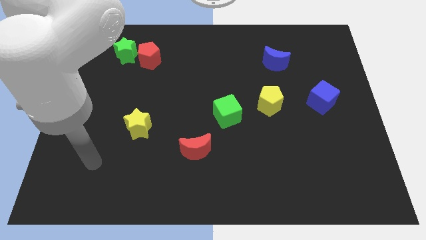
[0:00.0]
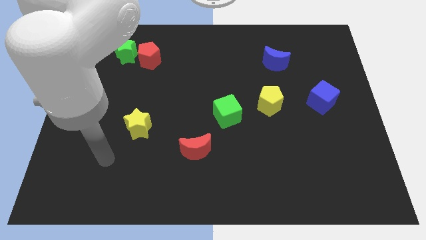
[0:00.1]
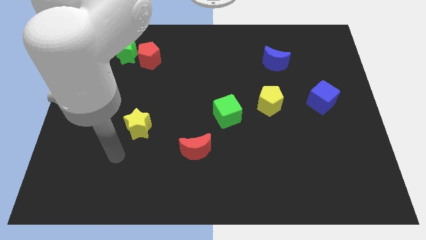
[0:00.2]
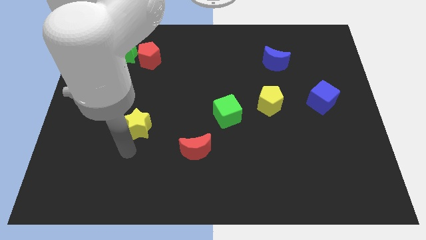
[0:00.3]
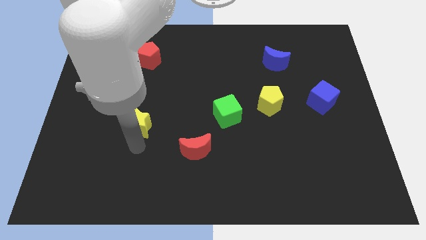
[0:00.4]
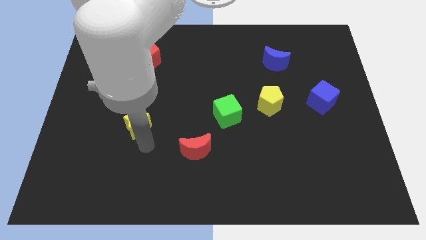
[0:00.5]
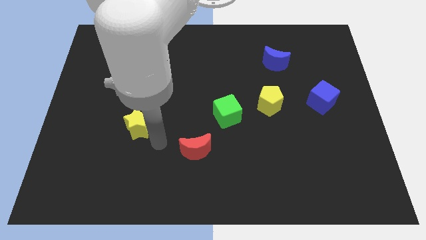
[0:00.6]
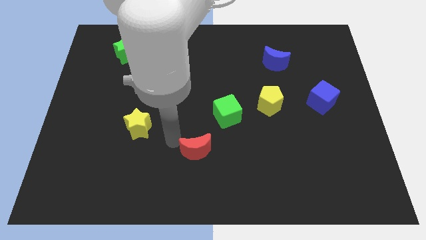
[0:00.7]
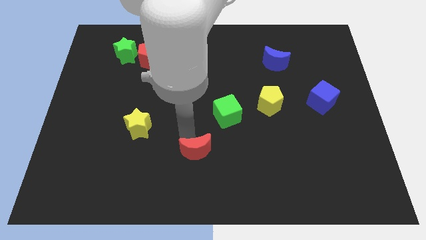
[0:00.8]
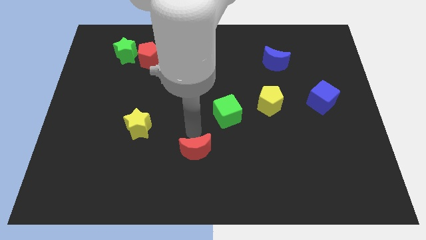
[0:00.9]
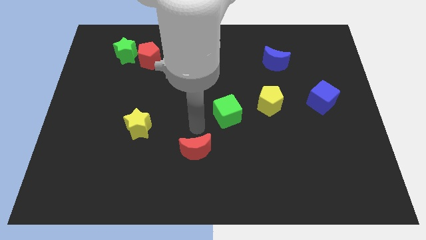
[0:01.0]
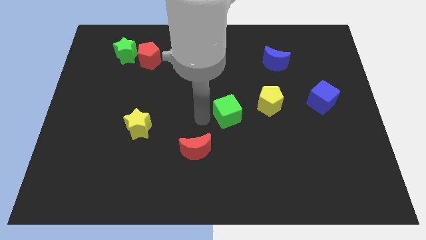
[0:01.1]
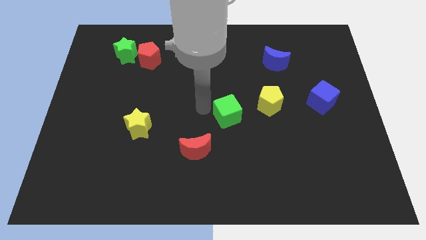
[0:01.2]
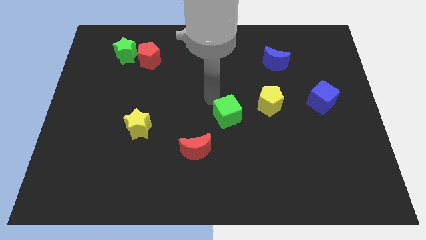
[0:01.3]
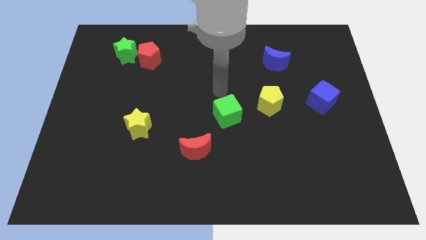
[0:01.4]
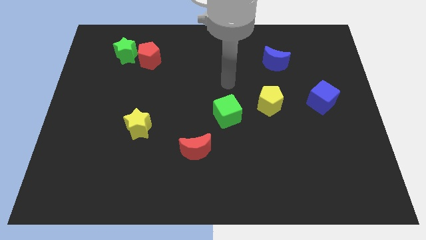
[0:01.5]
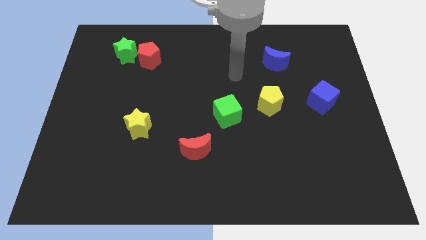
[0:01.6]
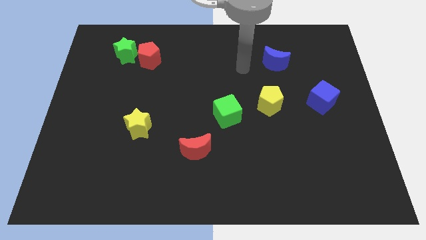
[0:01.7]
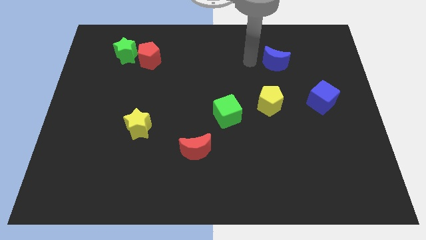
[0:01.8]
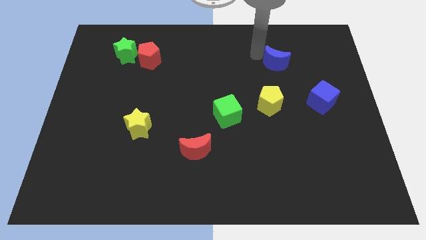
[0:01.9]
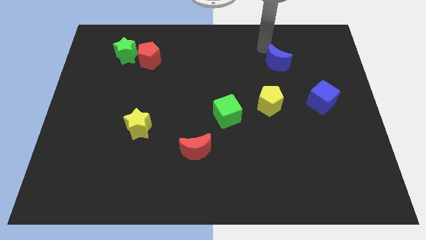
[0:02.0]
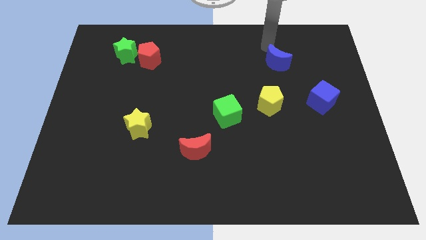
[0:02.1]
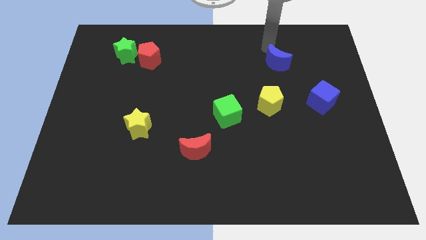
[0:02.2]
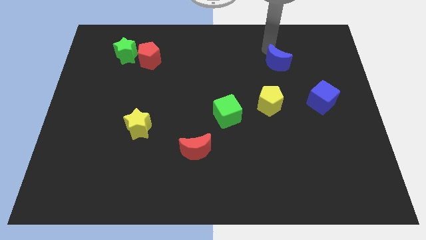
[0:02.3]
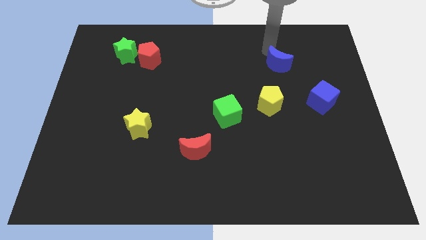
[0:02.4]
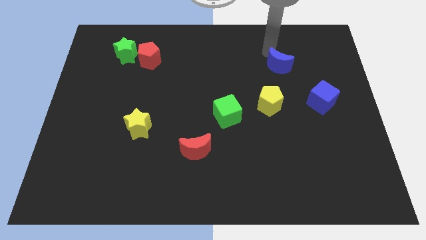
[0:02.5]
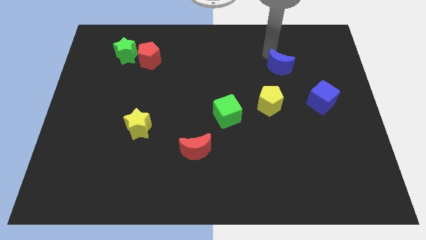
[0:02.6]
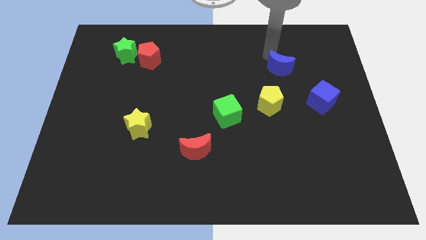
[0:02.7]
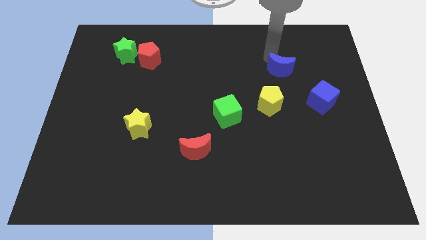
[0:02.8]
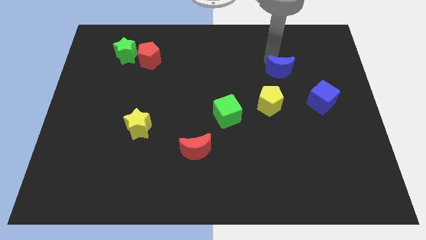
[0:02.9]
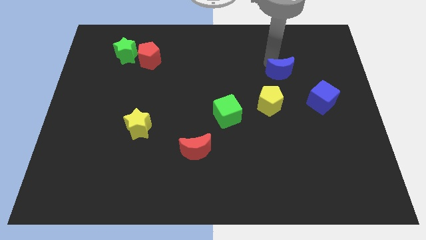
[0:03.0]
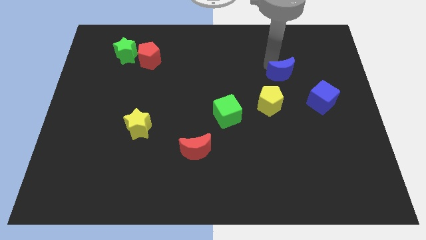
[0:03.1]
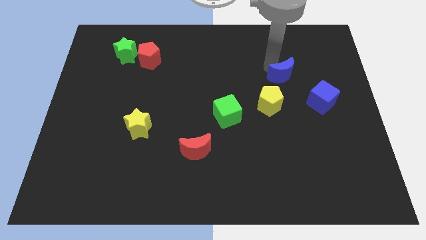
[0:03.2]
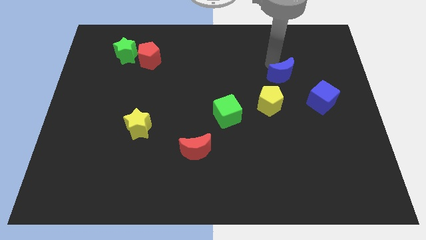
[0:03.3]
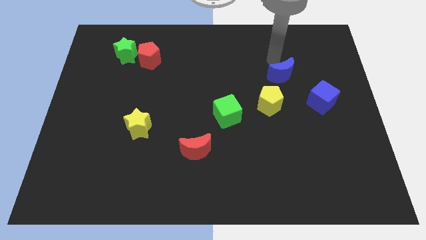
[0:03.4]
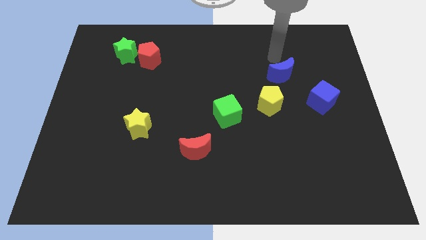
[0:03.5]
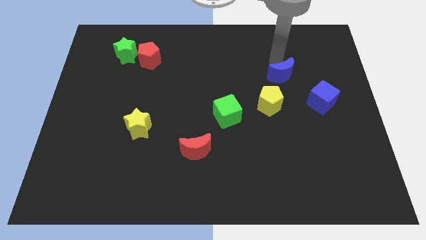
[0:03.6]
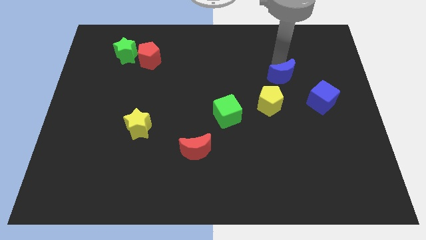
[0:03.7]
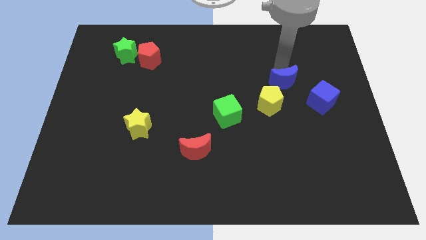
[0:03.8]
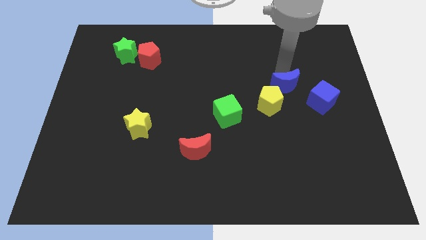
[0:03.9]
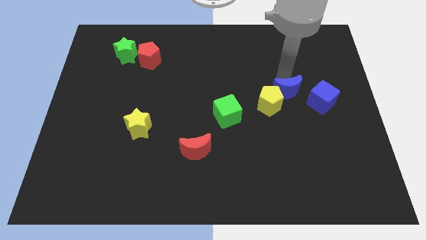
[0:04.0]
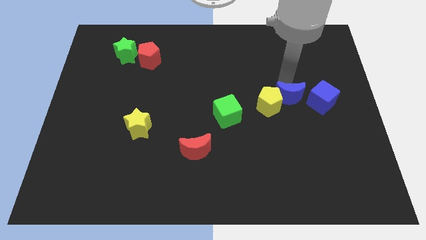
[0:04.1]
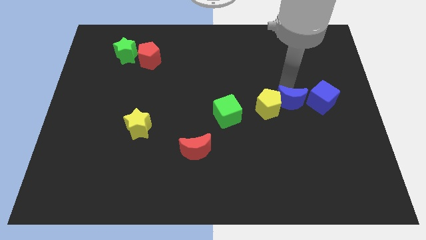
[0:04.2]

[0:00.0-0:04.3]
move the blue moon to the bottom left of the blue cube

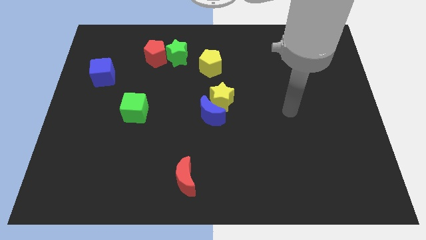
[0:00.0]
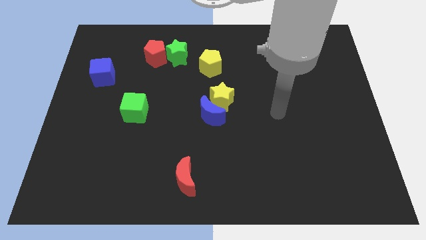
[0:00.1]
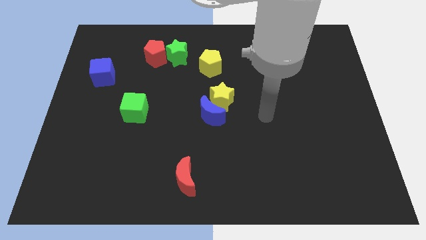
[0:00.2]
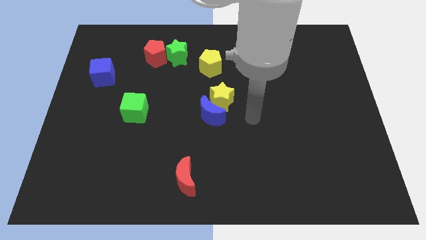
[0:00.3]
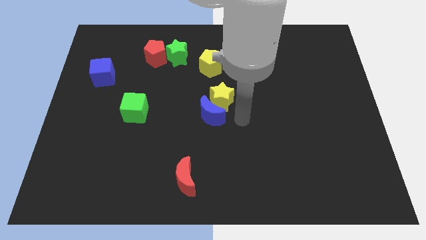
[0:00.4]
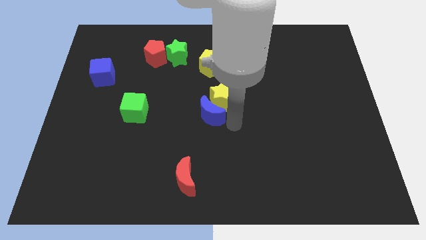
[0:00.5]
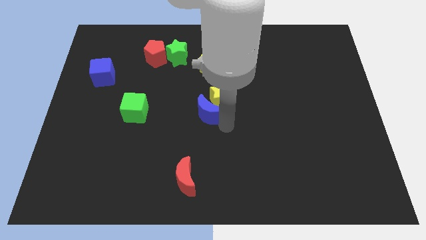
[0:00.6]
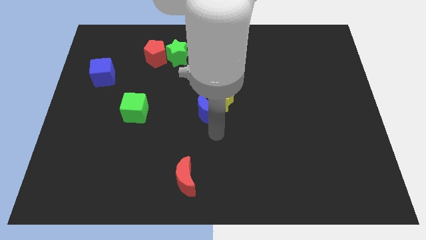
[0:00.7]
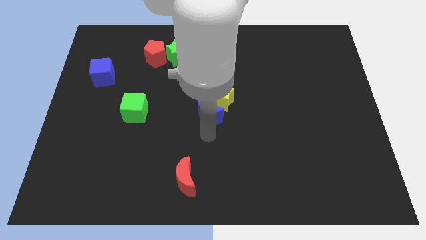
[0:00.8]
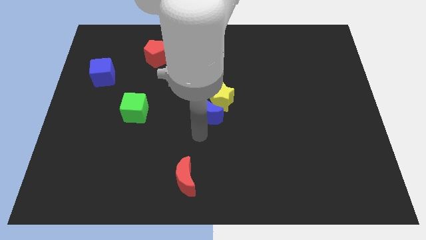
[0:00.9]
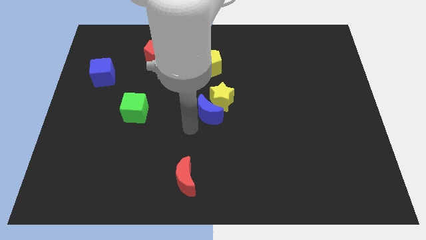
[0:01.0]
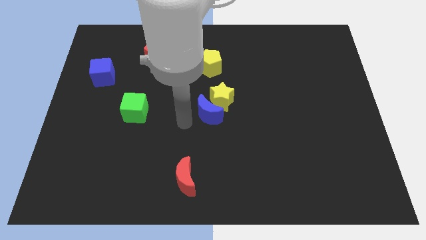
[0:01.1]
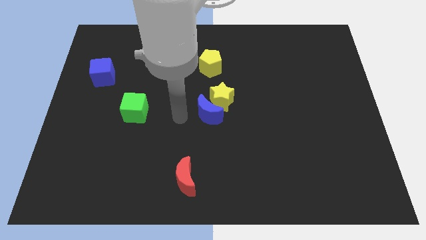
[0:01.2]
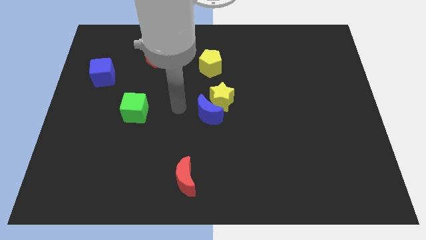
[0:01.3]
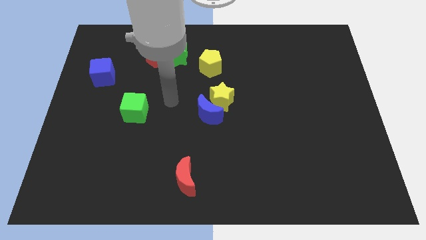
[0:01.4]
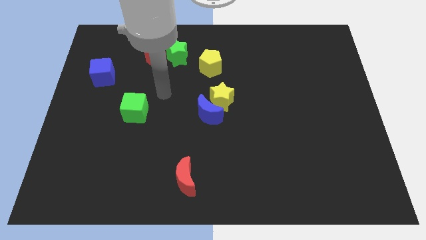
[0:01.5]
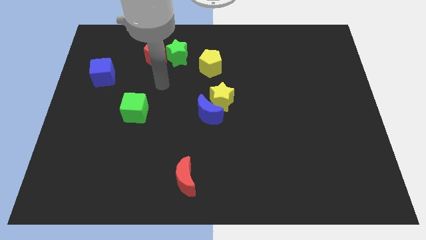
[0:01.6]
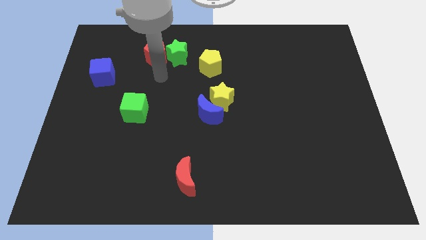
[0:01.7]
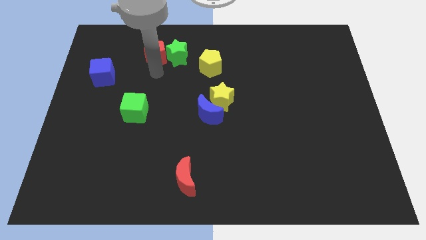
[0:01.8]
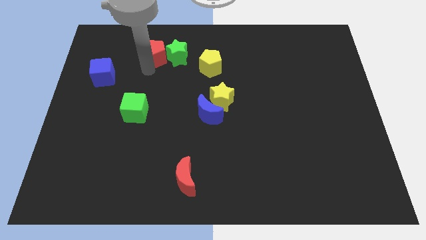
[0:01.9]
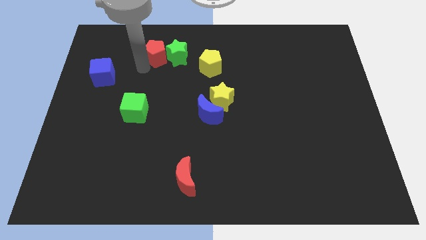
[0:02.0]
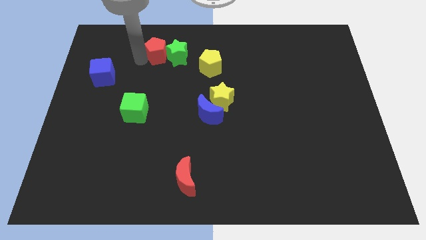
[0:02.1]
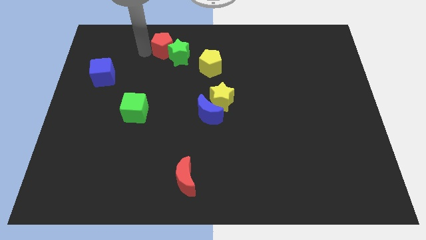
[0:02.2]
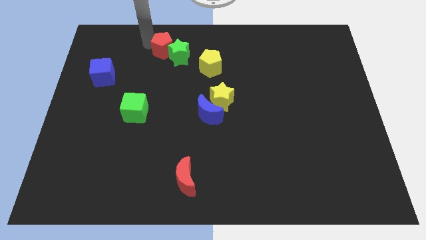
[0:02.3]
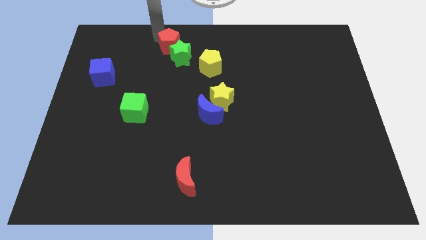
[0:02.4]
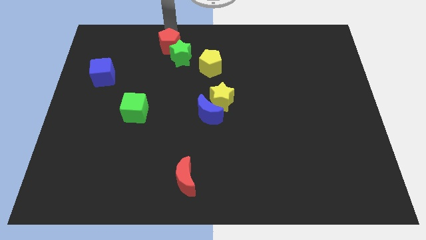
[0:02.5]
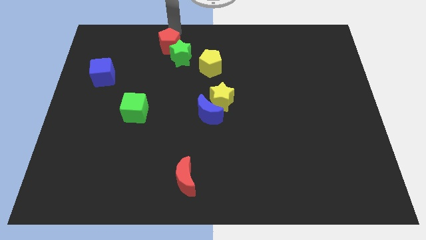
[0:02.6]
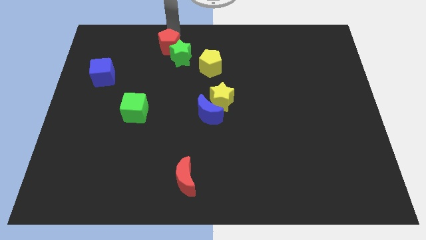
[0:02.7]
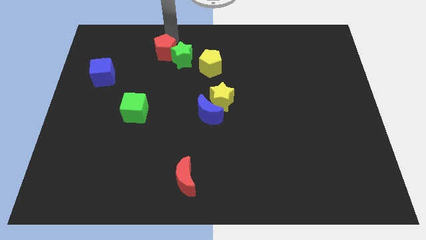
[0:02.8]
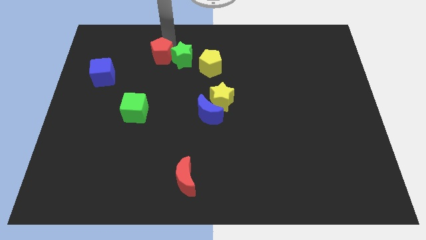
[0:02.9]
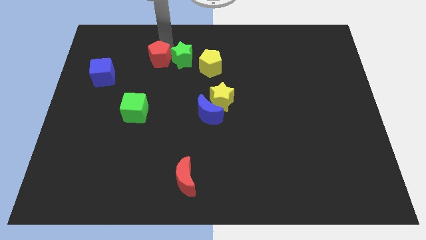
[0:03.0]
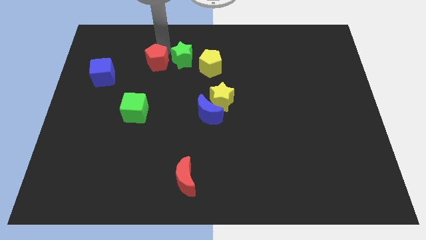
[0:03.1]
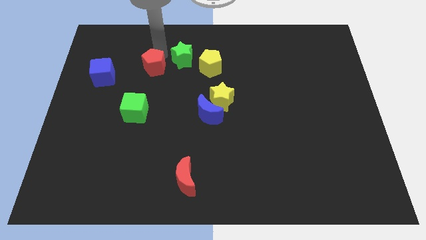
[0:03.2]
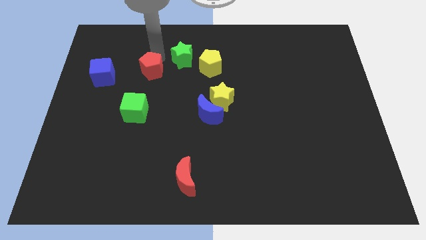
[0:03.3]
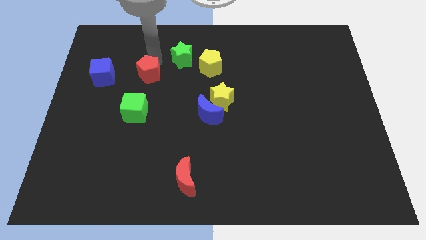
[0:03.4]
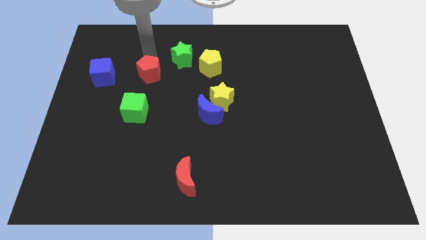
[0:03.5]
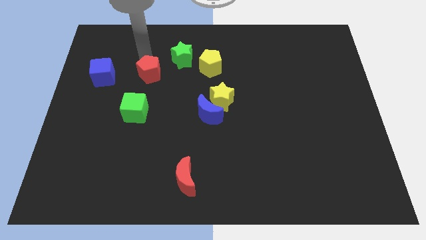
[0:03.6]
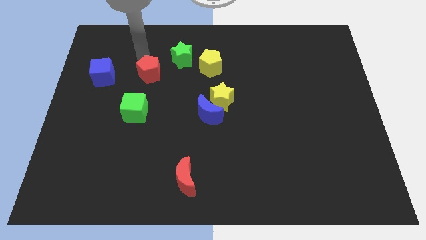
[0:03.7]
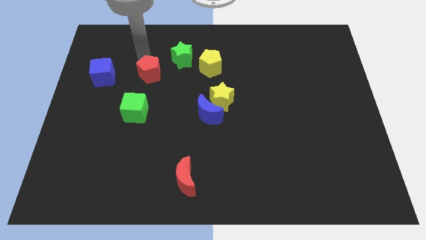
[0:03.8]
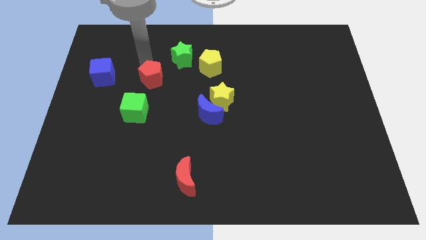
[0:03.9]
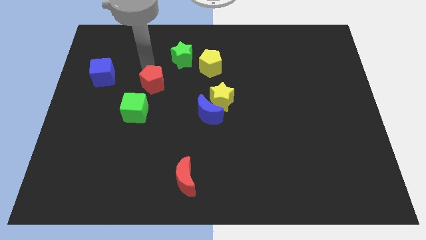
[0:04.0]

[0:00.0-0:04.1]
push the red pentagon to the top right side of the green cube
